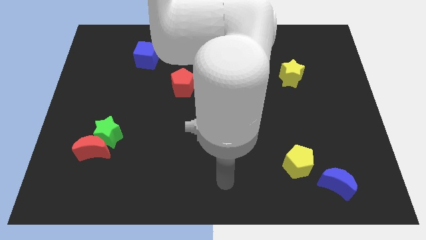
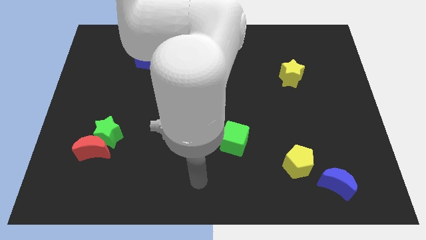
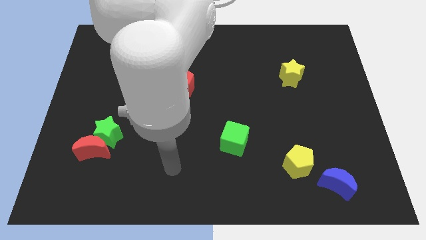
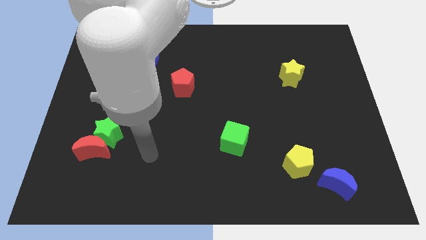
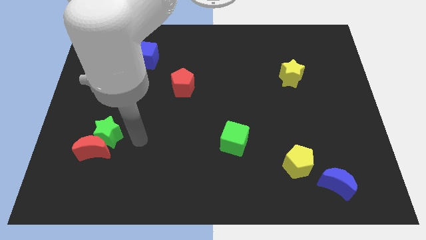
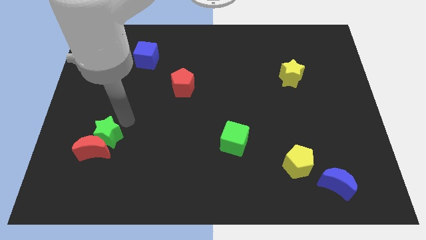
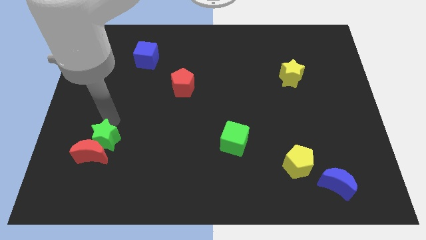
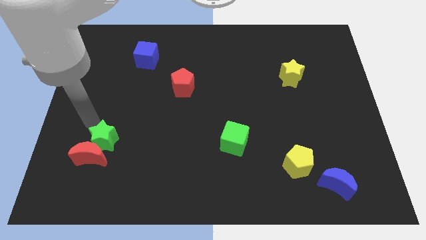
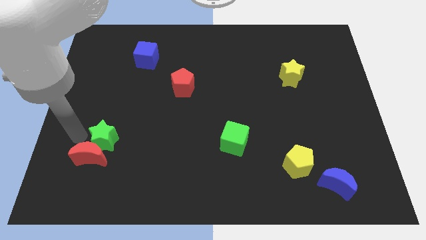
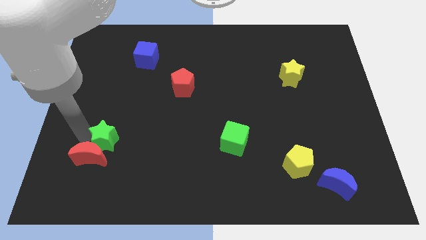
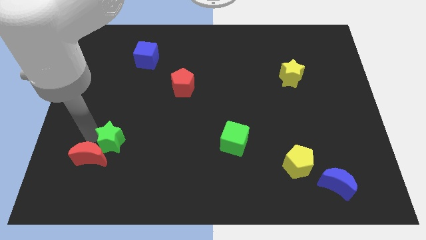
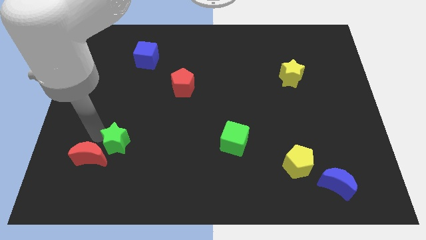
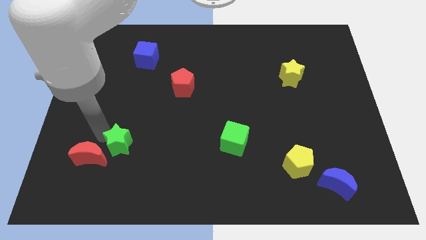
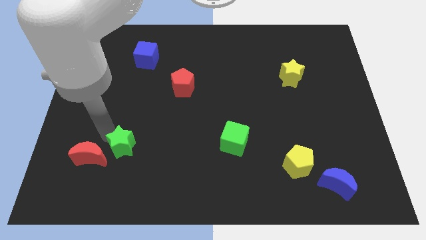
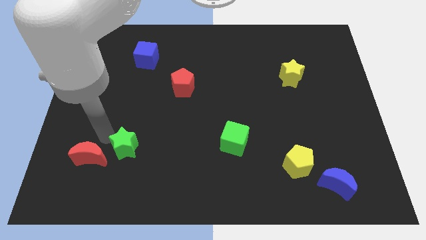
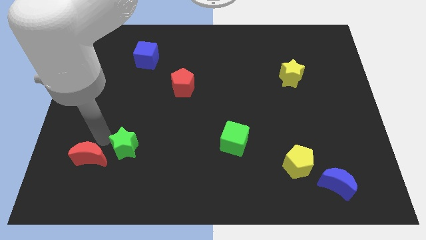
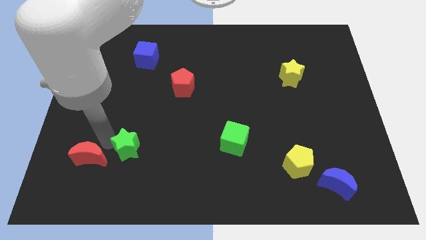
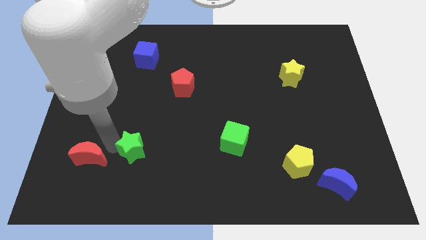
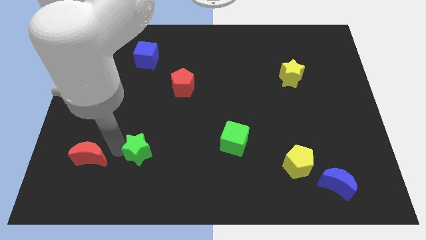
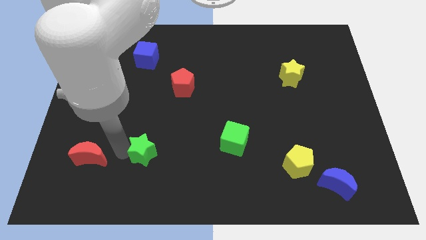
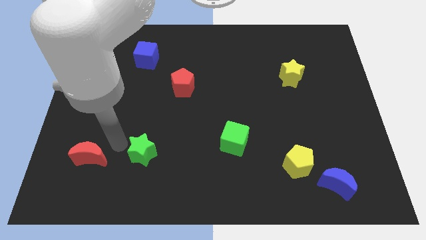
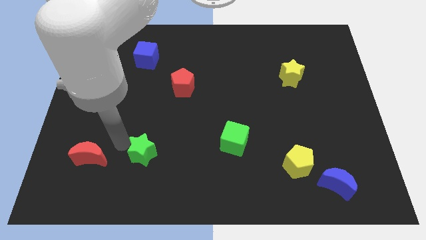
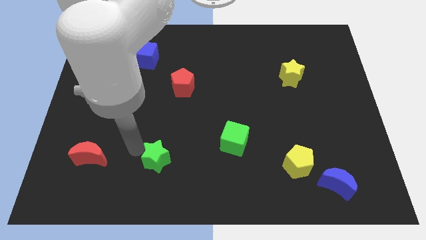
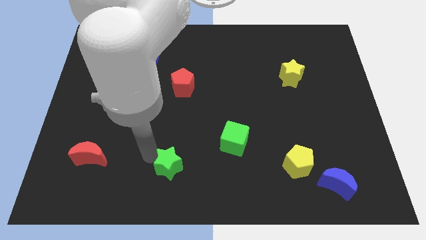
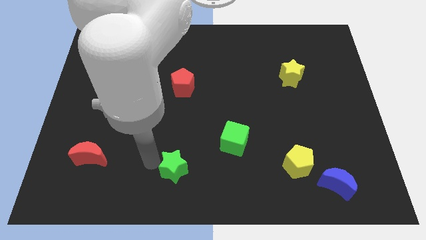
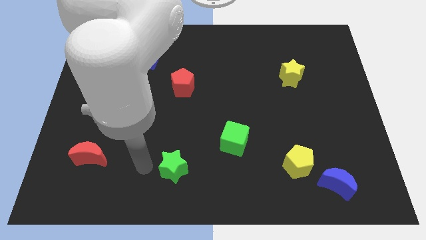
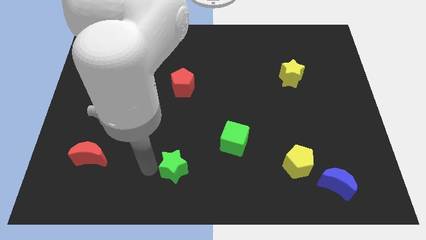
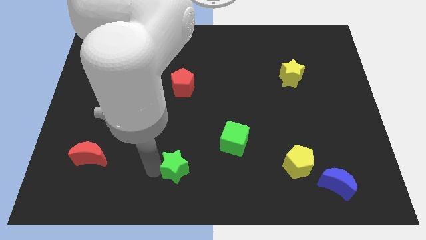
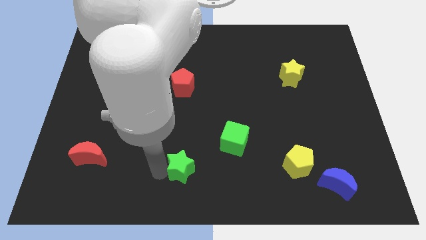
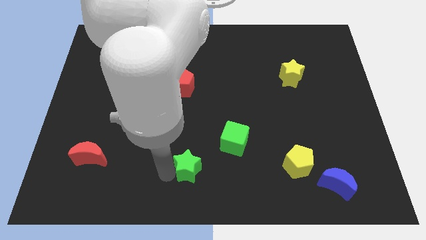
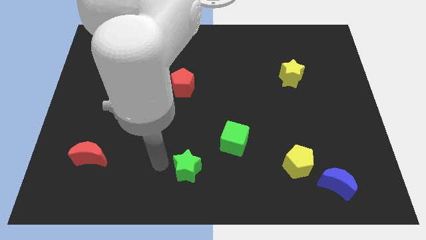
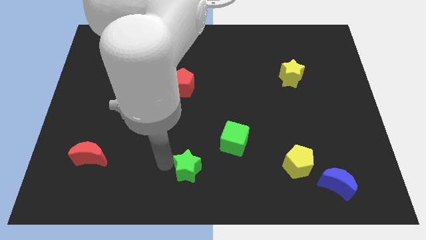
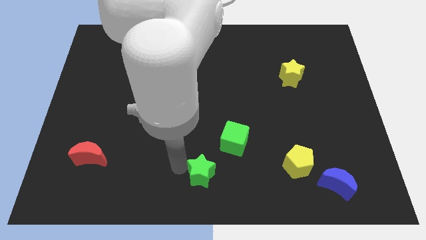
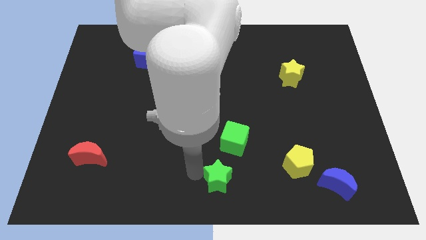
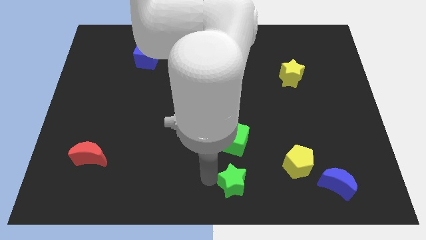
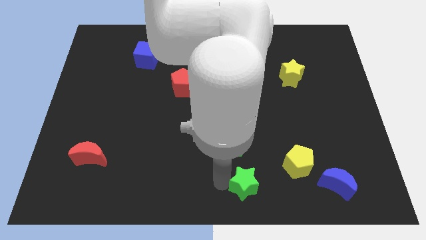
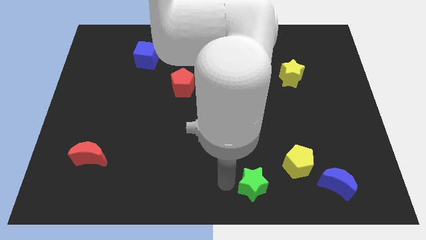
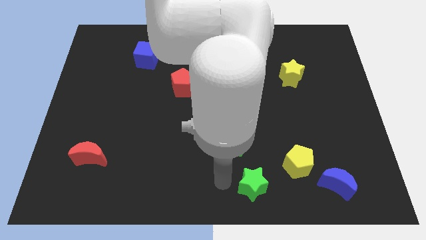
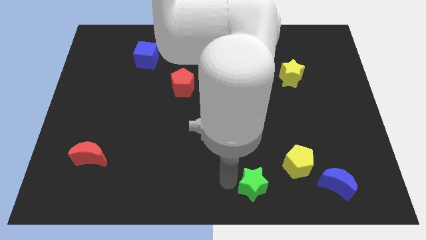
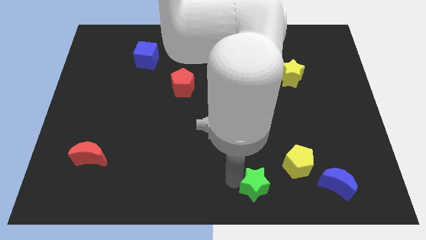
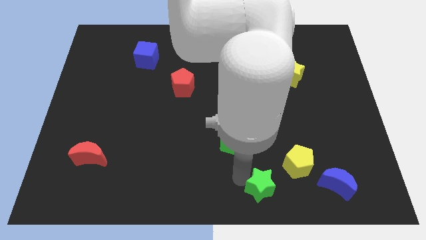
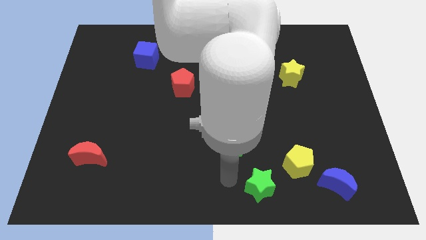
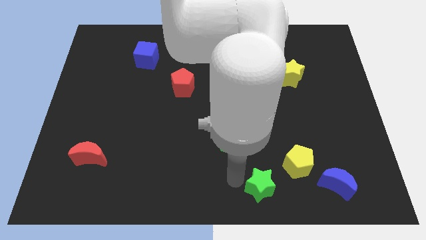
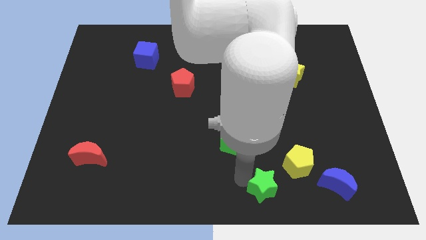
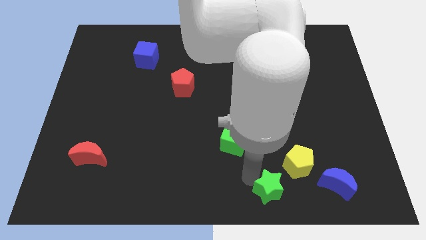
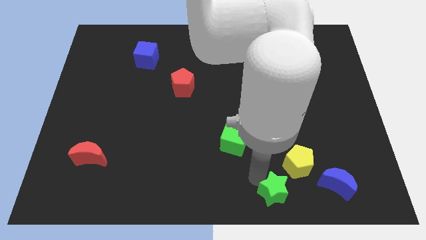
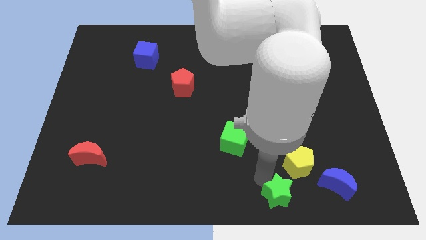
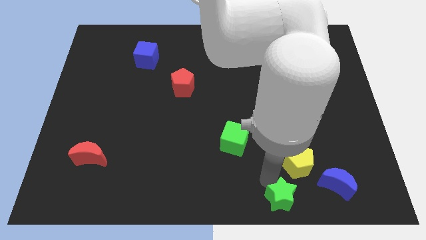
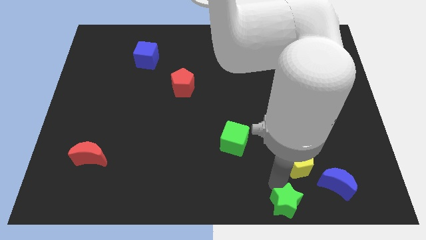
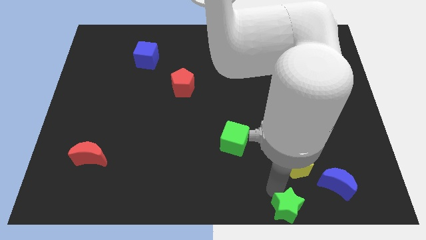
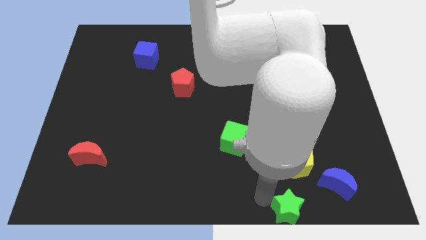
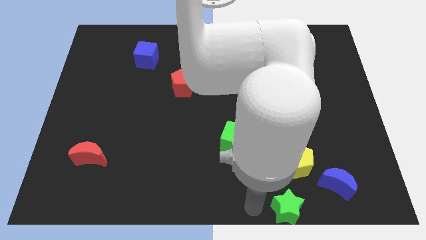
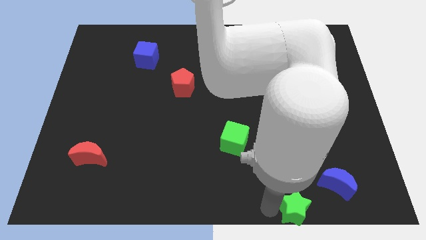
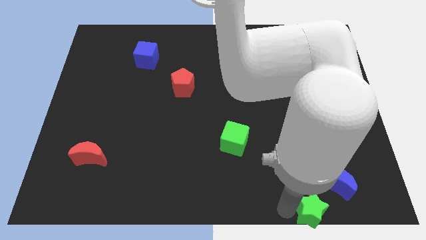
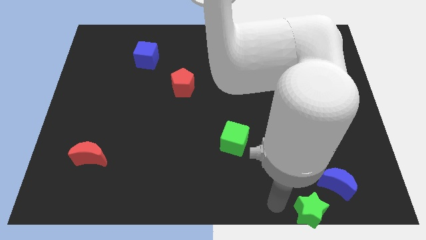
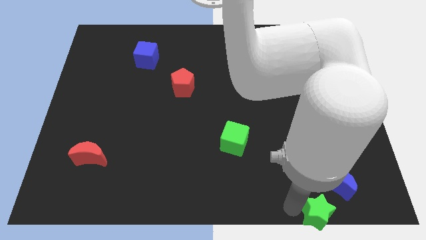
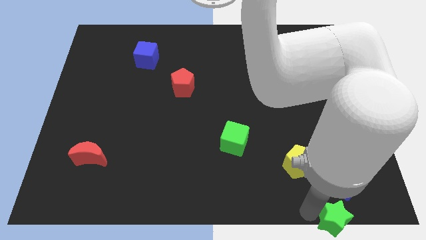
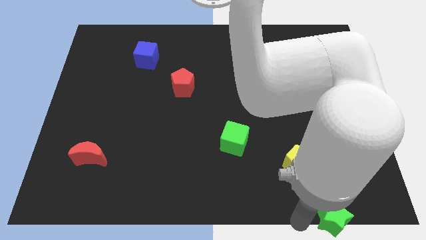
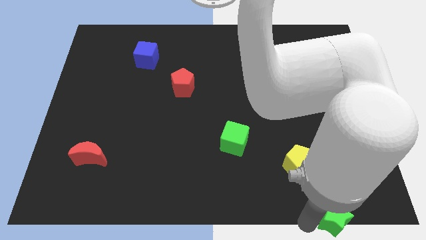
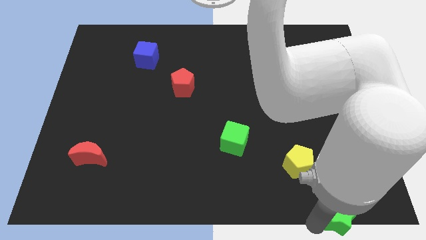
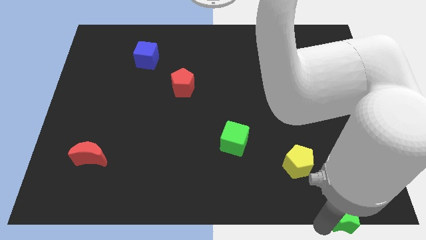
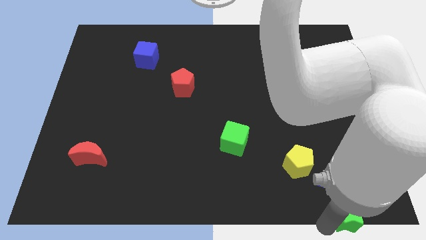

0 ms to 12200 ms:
move the green star to the bottom right of the board

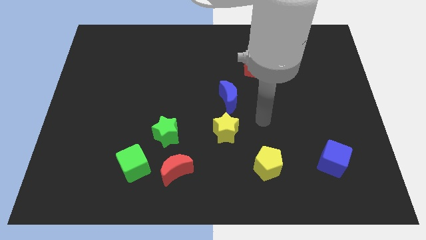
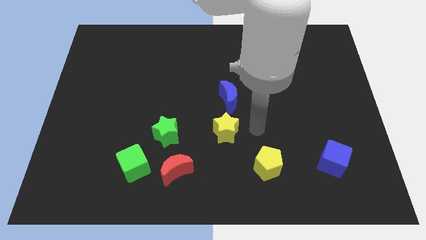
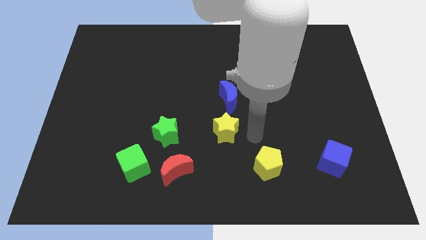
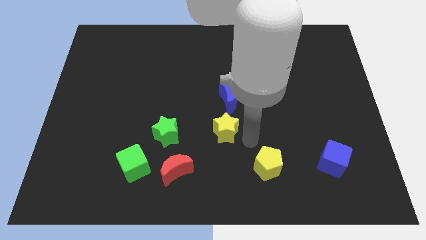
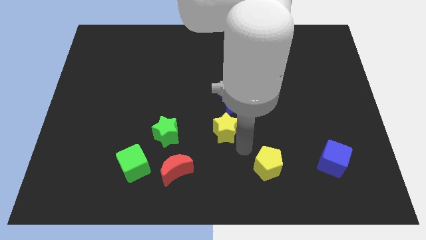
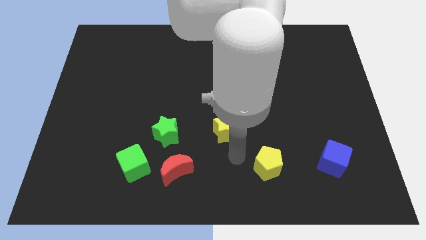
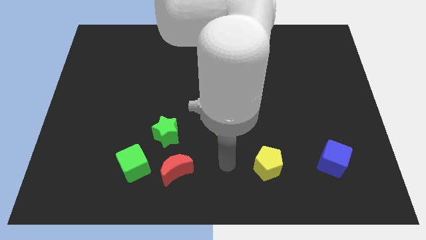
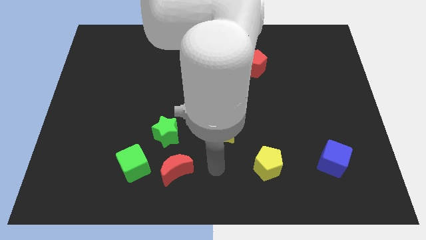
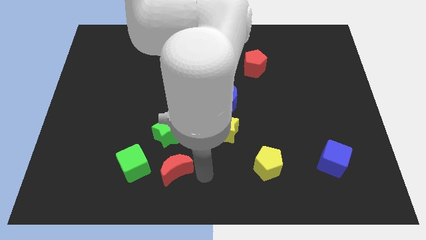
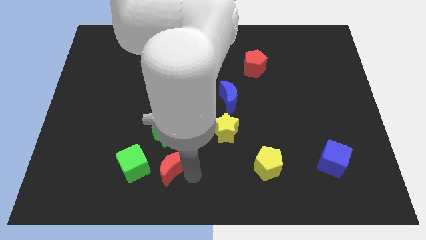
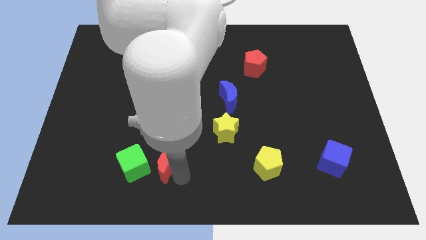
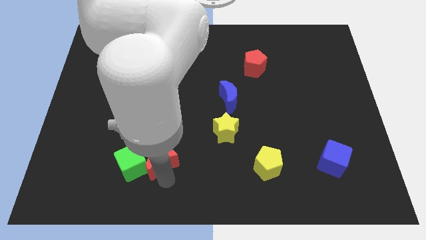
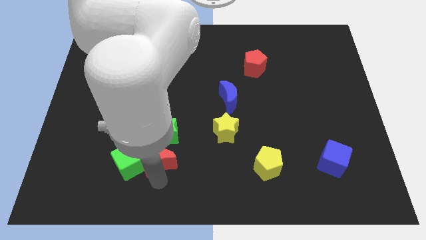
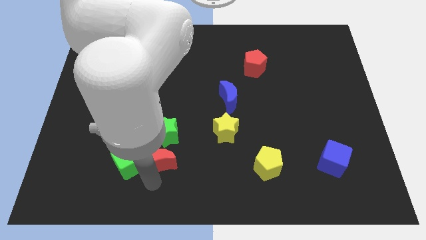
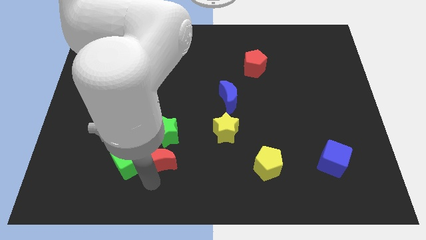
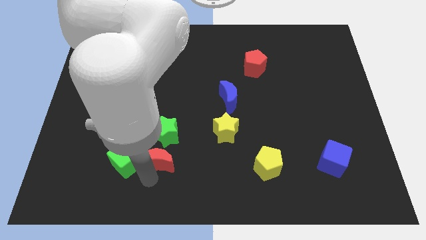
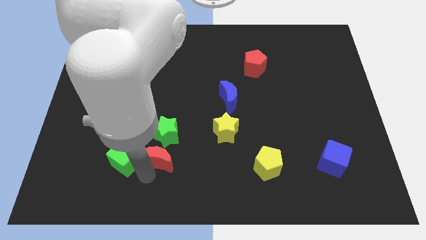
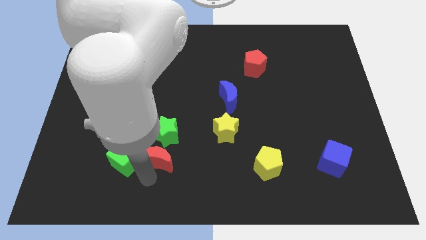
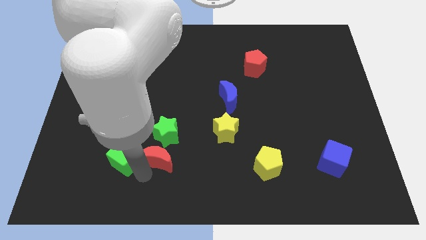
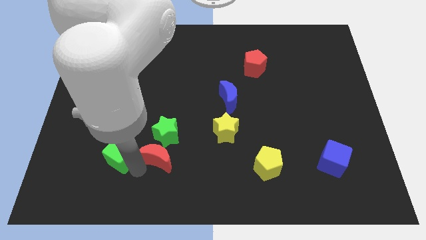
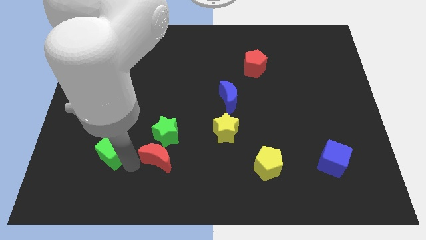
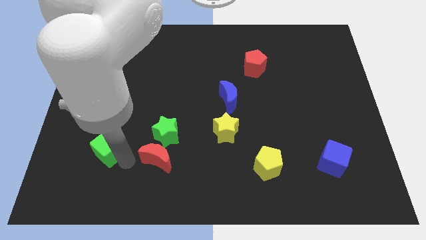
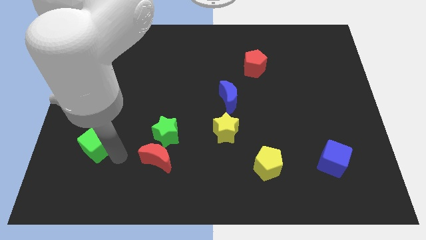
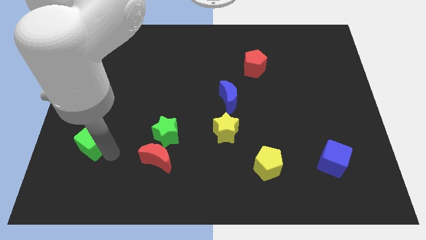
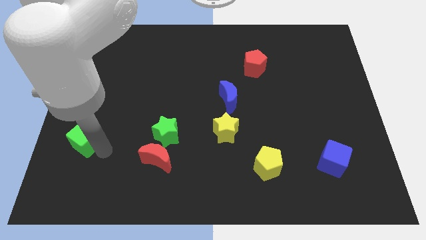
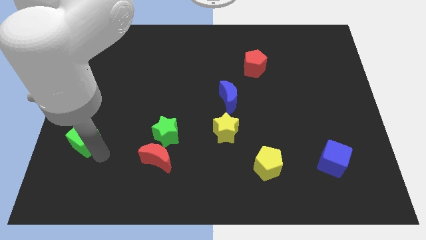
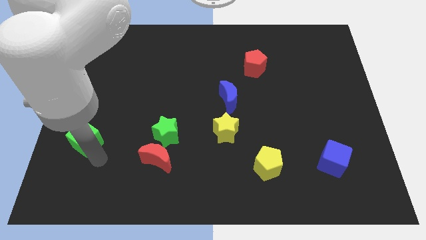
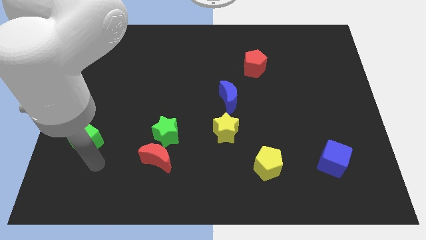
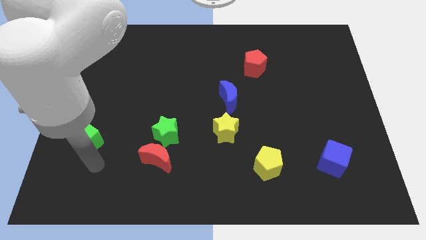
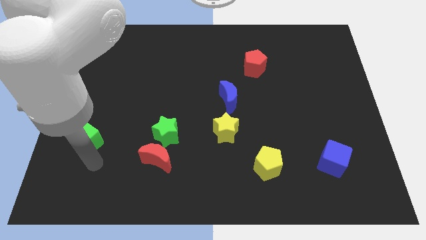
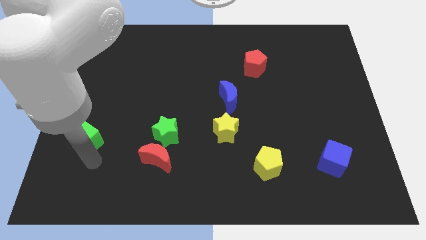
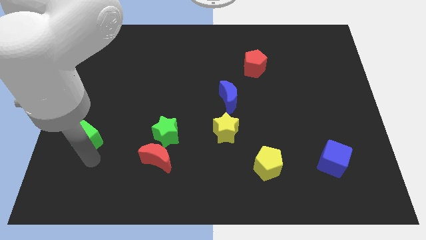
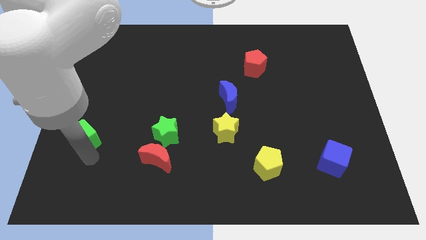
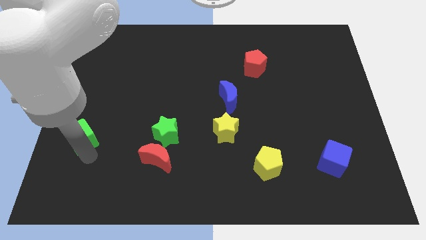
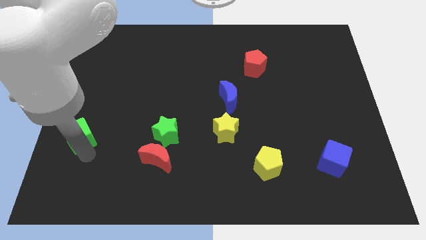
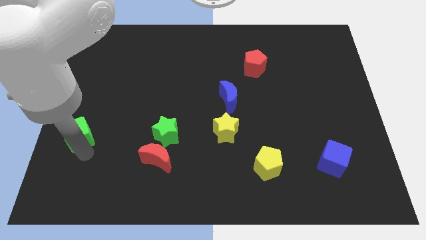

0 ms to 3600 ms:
push the green cube to the left side
